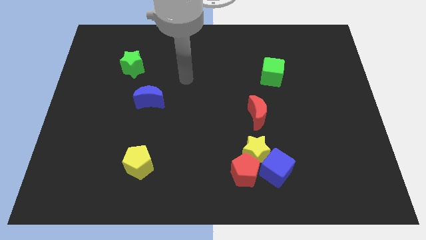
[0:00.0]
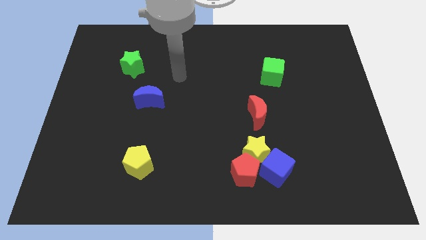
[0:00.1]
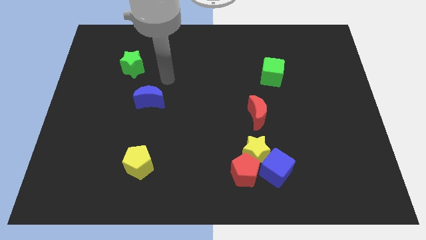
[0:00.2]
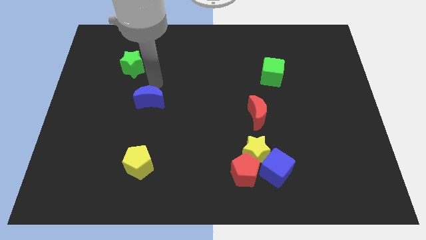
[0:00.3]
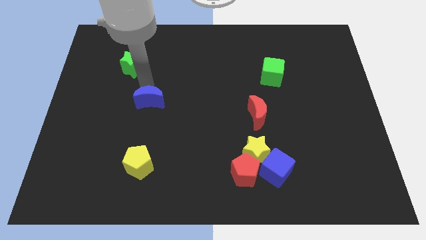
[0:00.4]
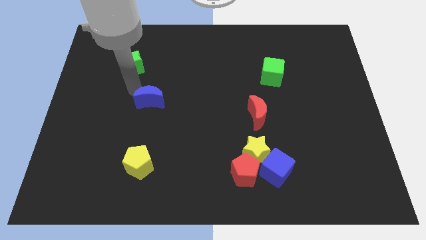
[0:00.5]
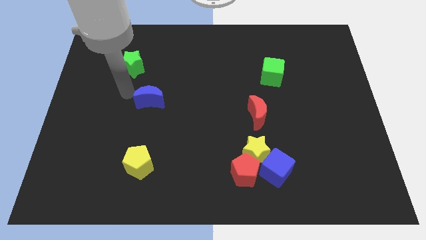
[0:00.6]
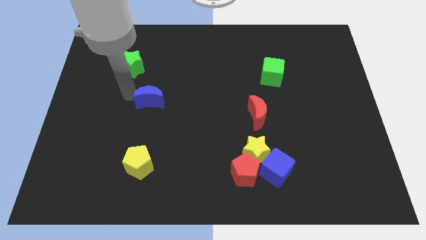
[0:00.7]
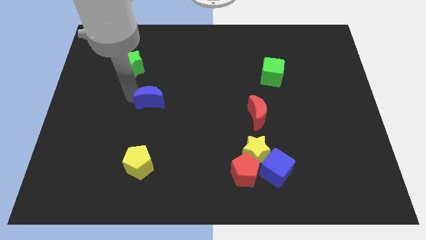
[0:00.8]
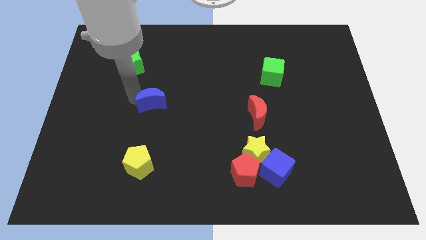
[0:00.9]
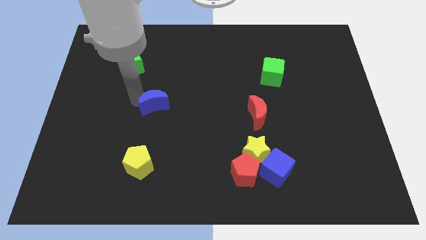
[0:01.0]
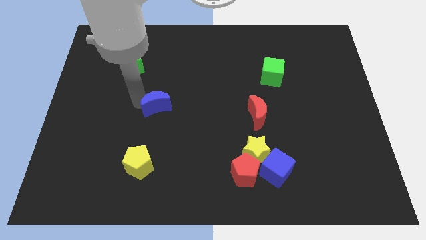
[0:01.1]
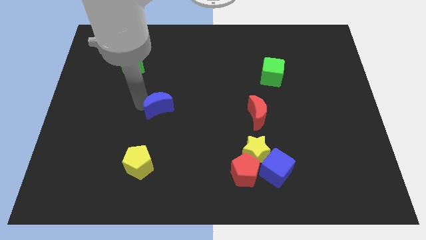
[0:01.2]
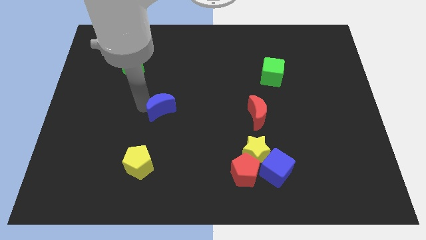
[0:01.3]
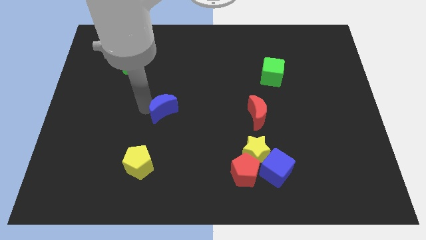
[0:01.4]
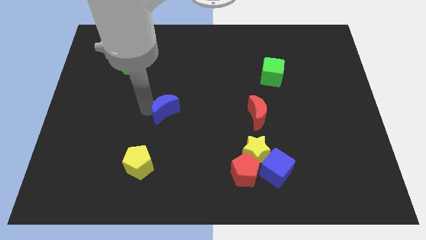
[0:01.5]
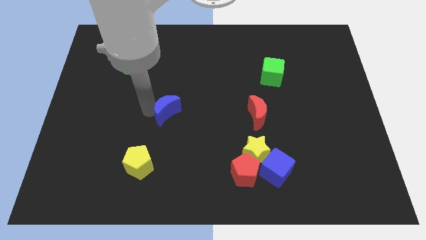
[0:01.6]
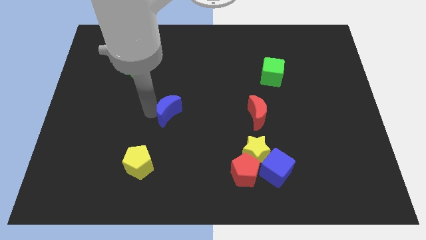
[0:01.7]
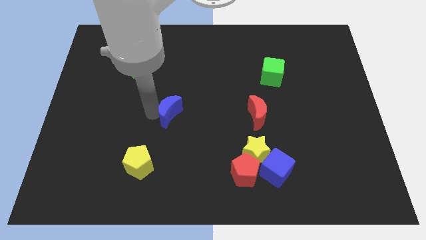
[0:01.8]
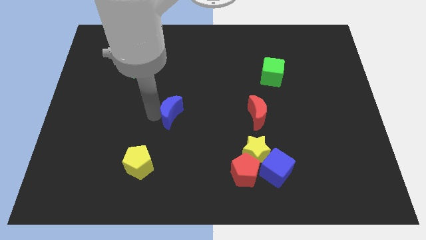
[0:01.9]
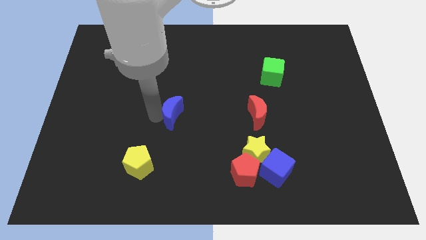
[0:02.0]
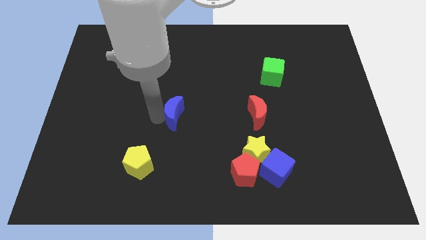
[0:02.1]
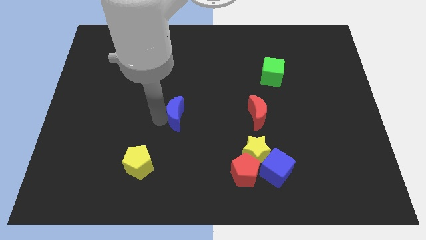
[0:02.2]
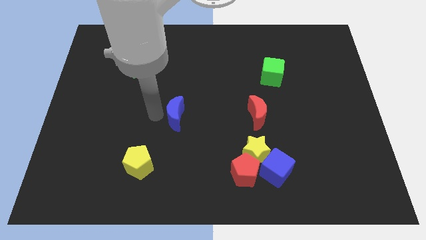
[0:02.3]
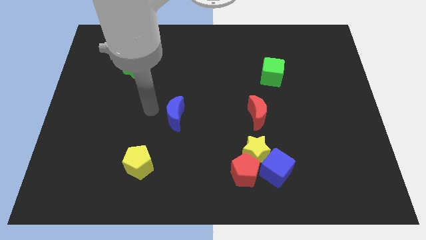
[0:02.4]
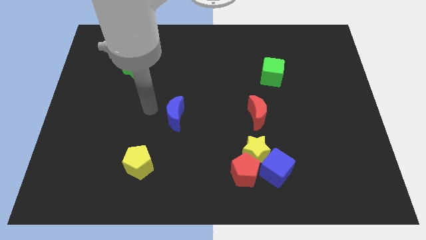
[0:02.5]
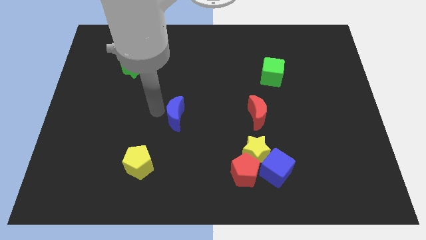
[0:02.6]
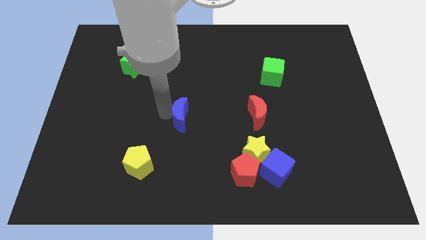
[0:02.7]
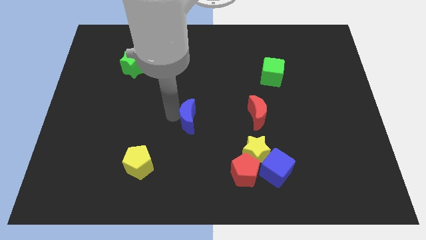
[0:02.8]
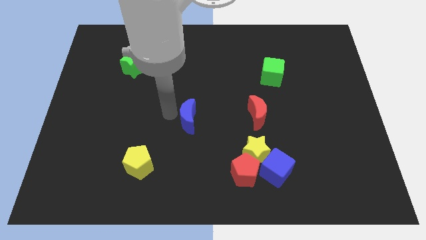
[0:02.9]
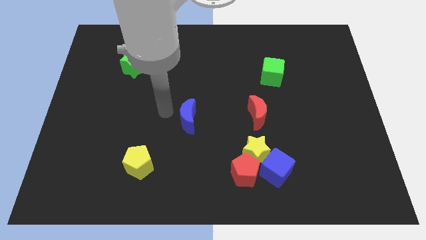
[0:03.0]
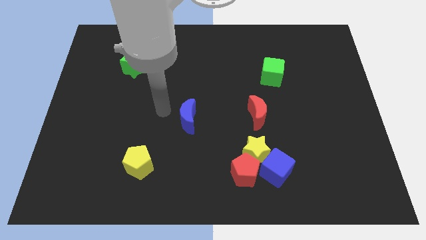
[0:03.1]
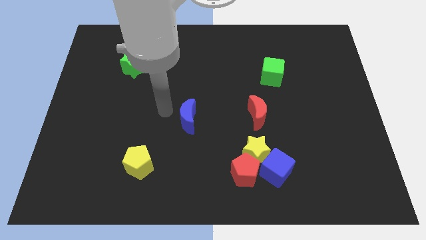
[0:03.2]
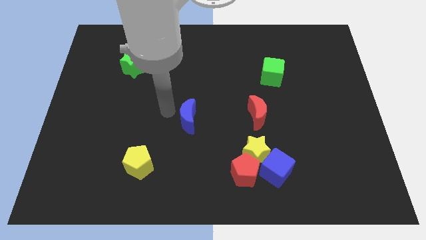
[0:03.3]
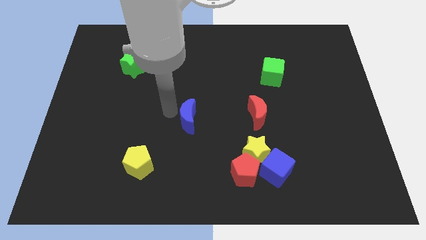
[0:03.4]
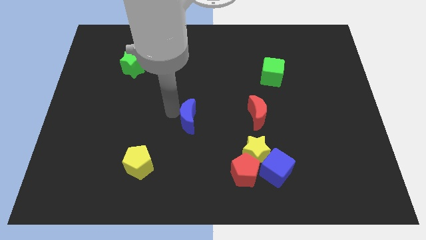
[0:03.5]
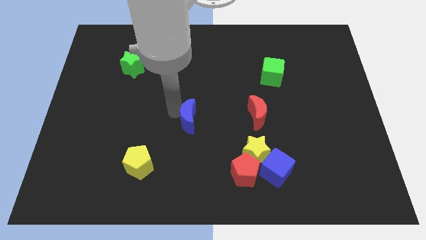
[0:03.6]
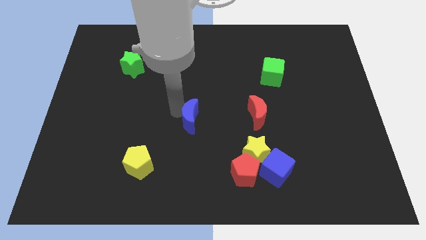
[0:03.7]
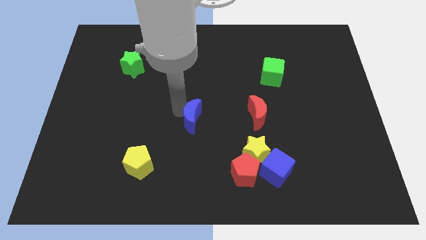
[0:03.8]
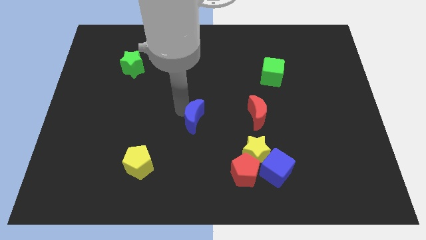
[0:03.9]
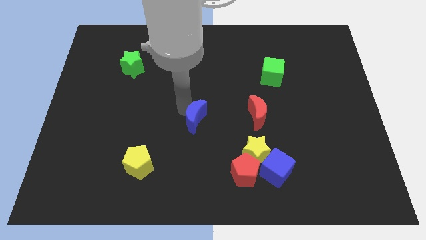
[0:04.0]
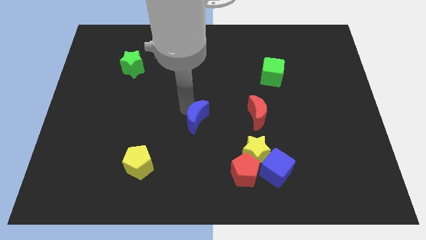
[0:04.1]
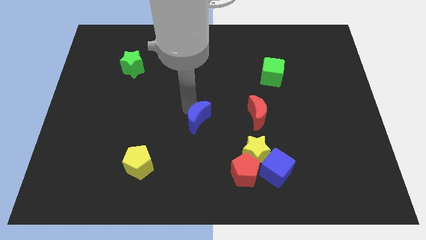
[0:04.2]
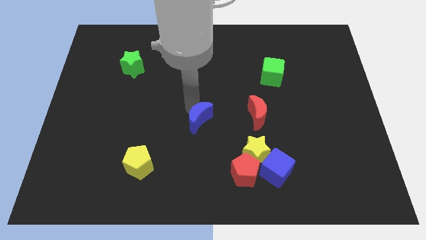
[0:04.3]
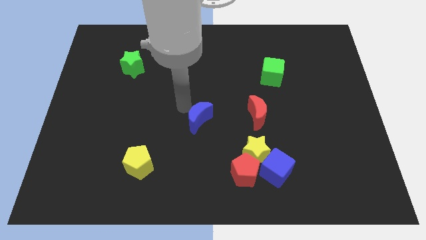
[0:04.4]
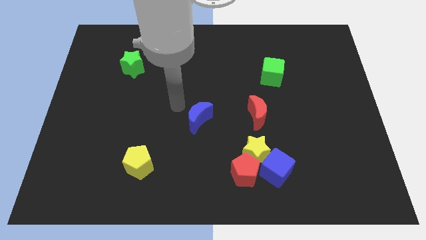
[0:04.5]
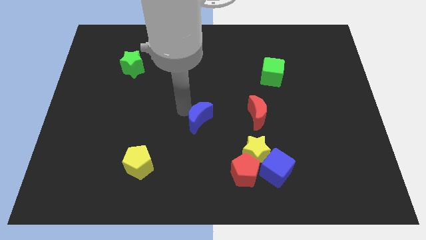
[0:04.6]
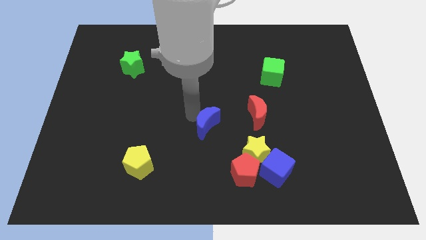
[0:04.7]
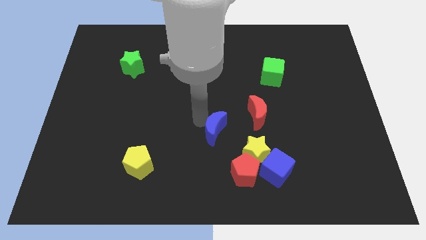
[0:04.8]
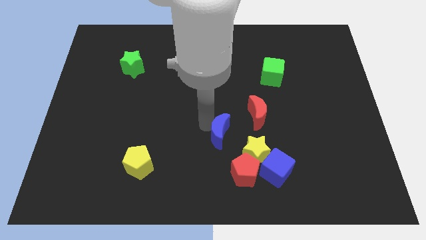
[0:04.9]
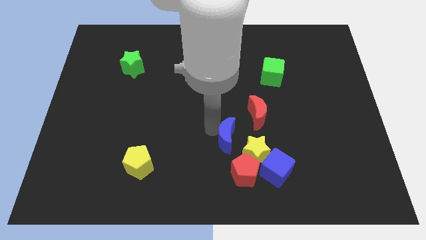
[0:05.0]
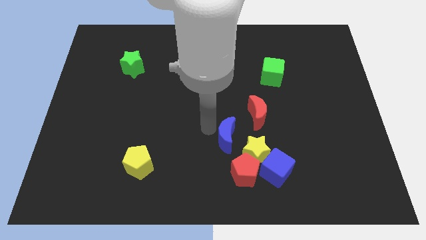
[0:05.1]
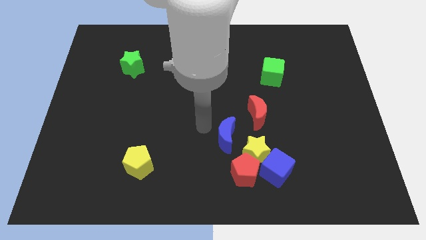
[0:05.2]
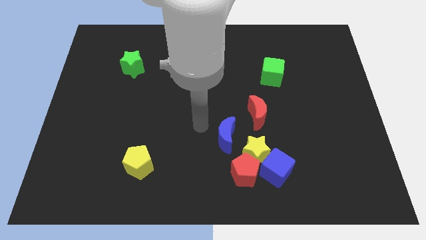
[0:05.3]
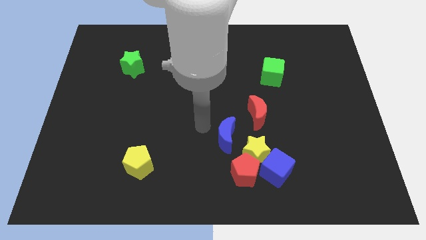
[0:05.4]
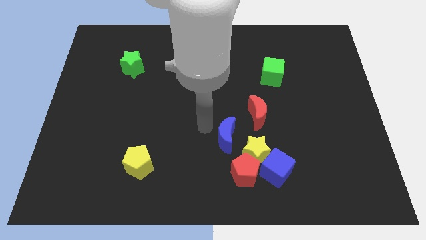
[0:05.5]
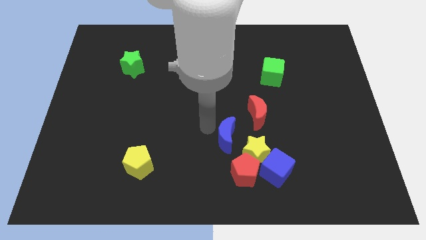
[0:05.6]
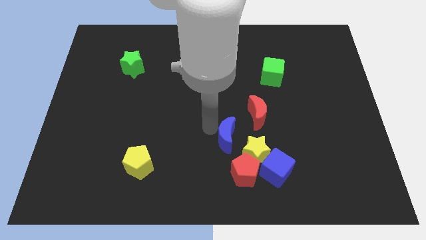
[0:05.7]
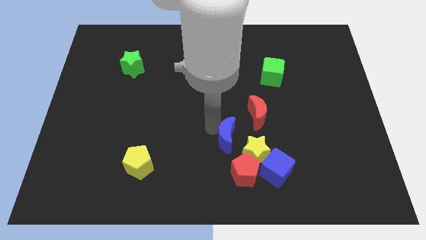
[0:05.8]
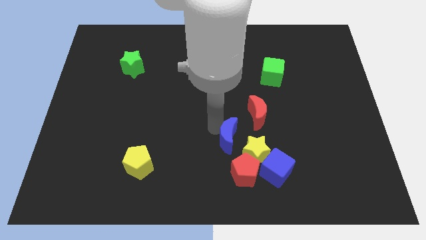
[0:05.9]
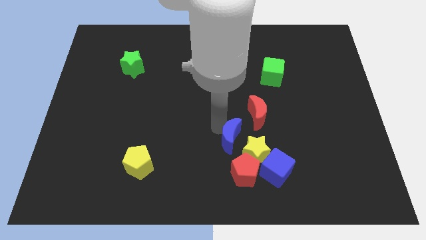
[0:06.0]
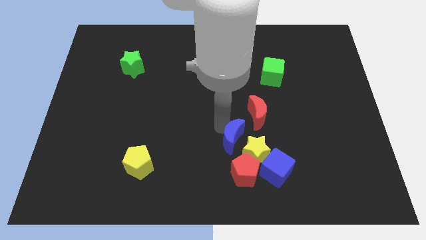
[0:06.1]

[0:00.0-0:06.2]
move the blue moon towards the yellow star

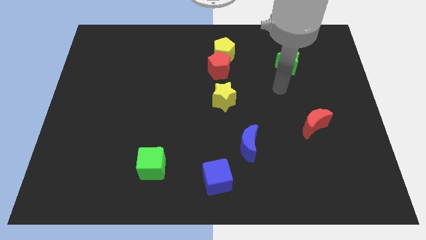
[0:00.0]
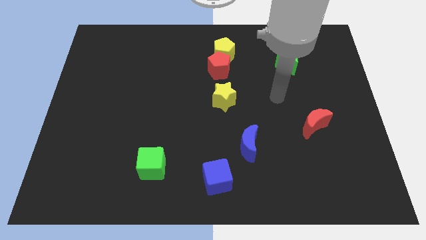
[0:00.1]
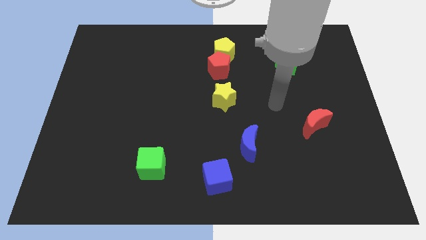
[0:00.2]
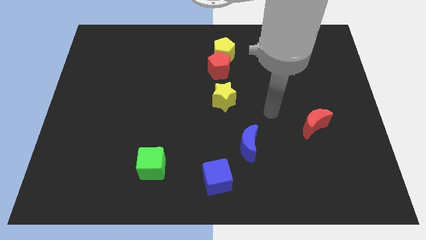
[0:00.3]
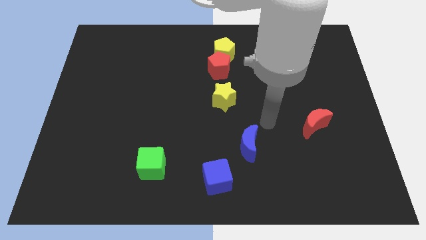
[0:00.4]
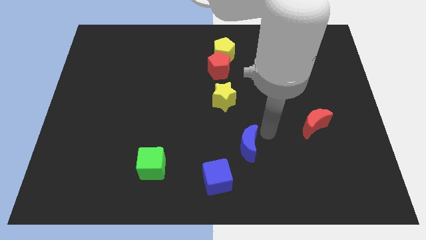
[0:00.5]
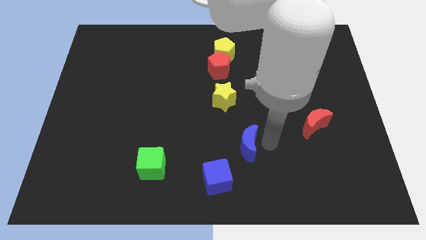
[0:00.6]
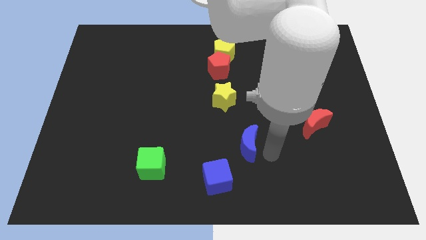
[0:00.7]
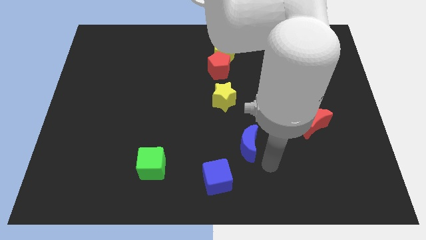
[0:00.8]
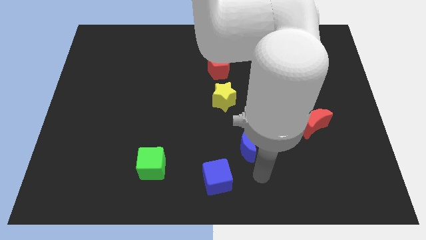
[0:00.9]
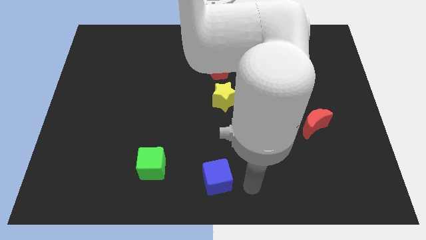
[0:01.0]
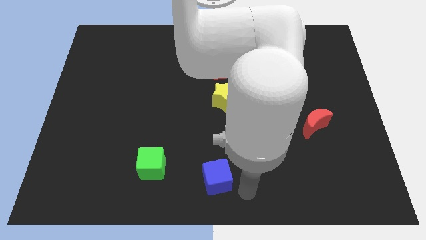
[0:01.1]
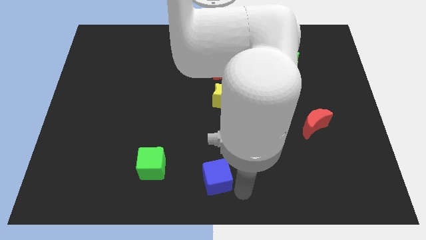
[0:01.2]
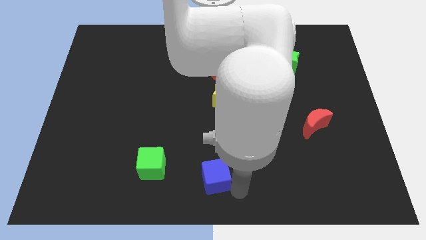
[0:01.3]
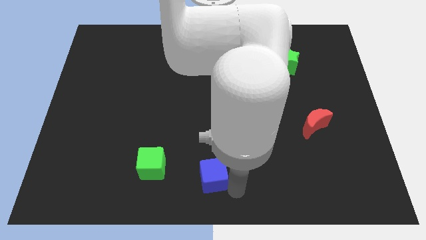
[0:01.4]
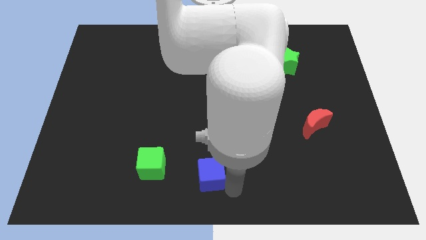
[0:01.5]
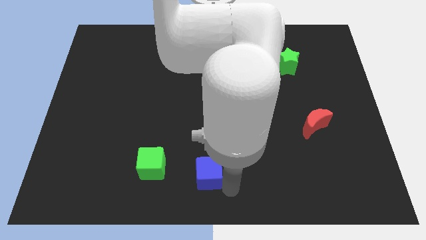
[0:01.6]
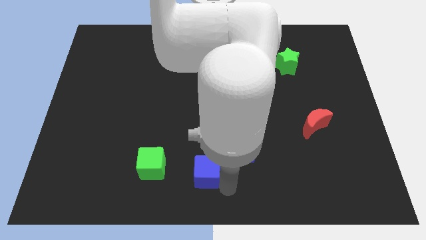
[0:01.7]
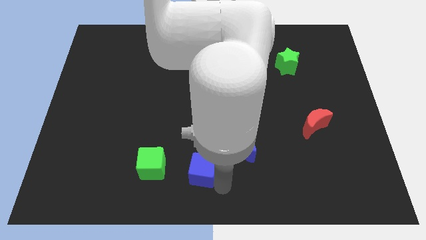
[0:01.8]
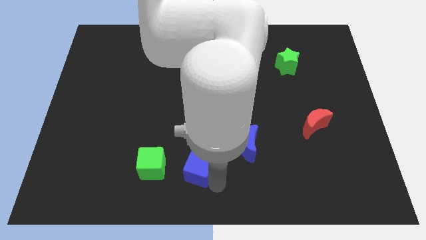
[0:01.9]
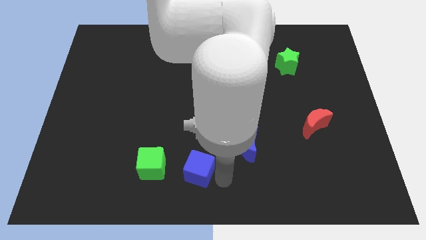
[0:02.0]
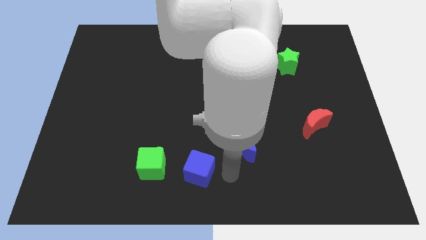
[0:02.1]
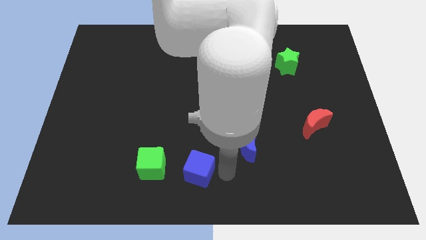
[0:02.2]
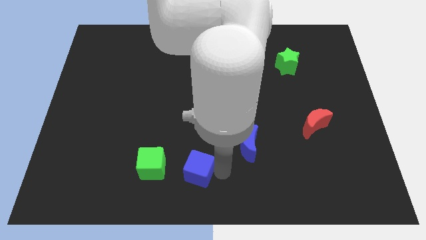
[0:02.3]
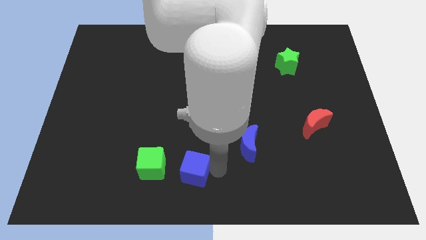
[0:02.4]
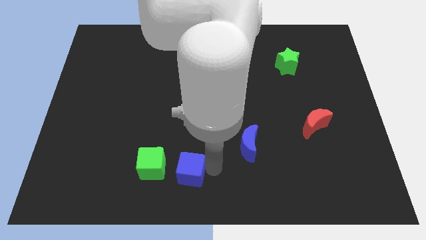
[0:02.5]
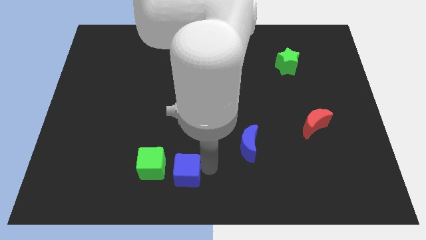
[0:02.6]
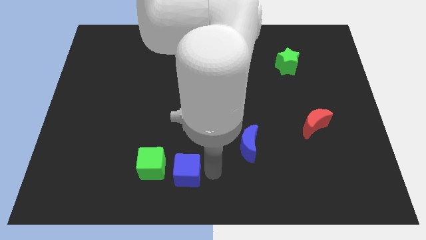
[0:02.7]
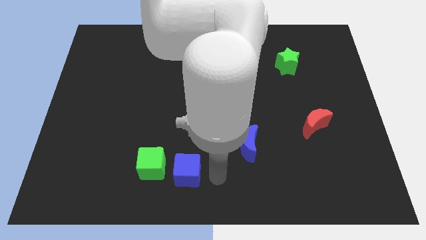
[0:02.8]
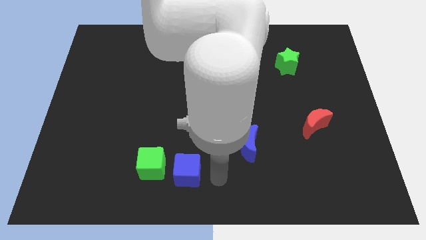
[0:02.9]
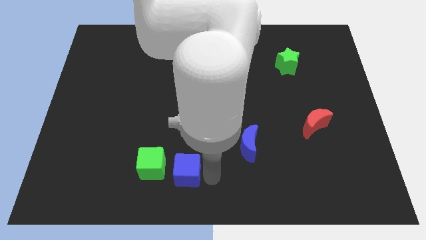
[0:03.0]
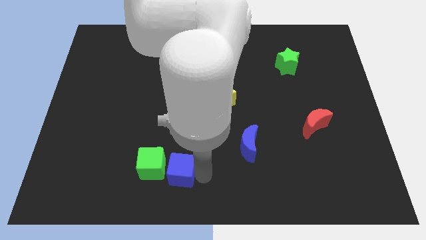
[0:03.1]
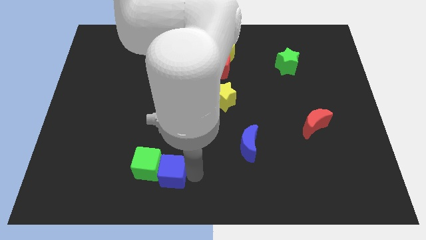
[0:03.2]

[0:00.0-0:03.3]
put the blue cube close to the green cube
